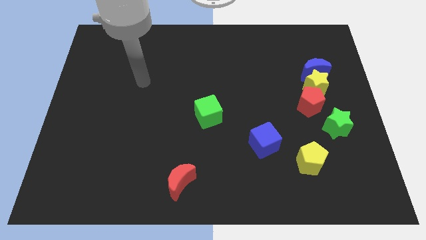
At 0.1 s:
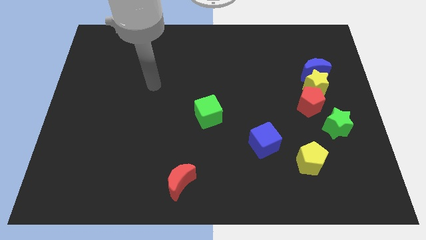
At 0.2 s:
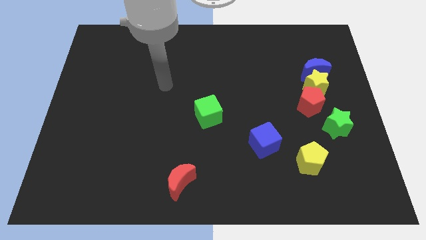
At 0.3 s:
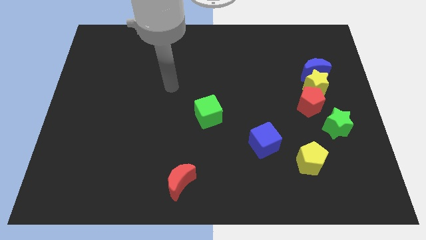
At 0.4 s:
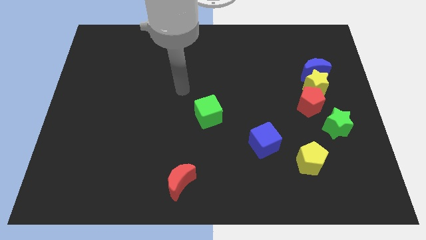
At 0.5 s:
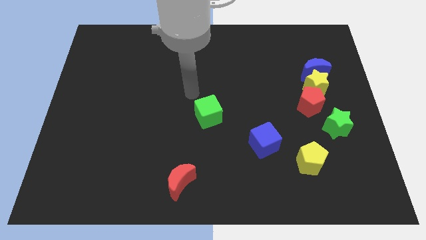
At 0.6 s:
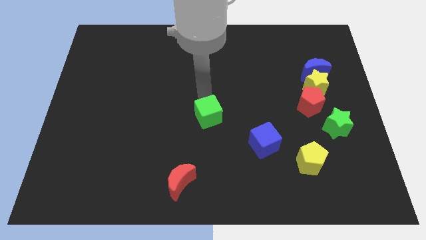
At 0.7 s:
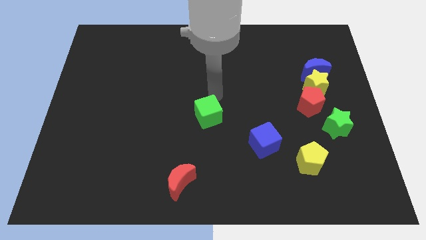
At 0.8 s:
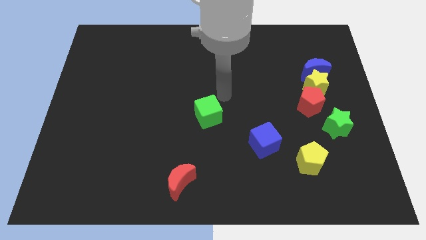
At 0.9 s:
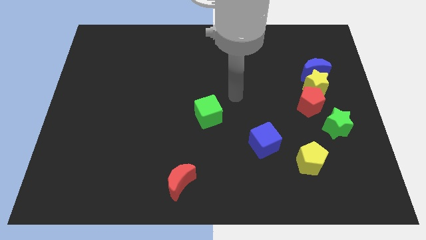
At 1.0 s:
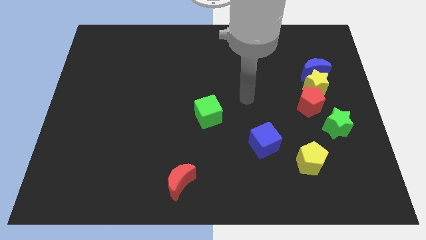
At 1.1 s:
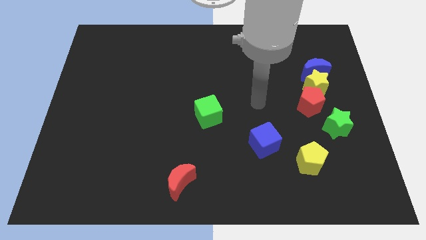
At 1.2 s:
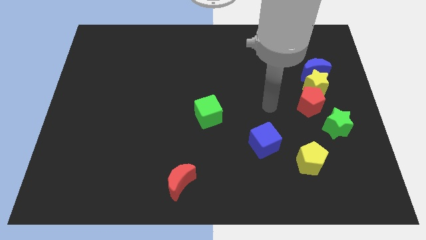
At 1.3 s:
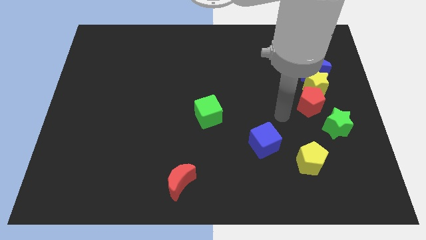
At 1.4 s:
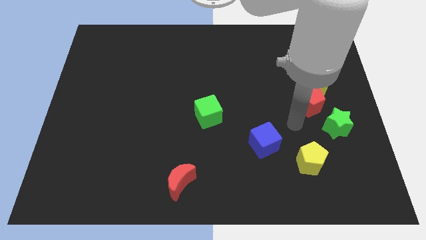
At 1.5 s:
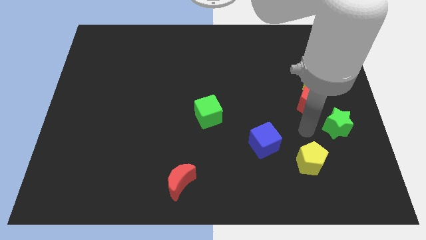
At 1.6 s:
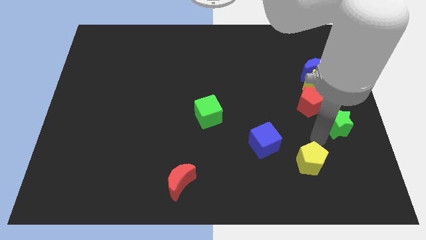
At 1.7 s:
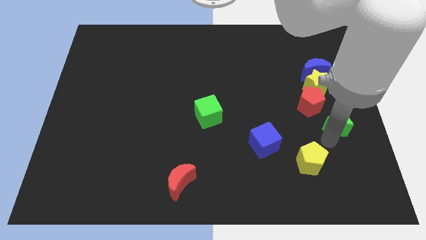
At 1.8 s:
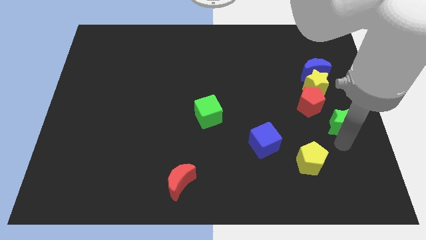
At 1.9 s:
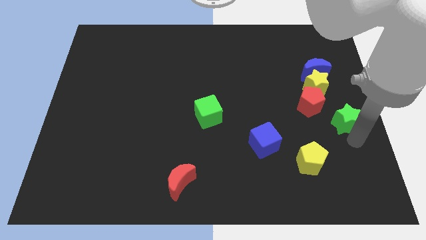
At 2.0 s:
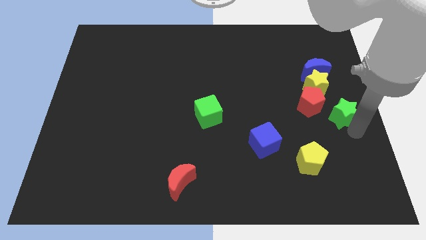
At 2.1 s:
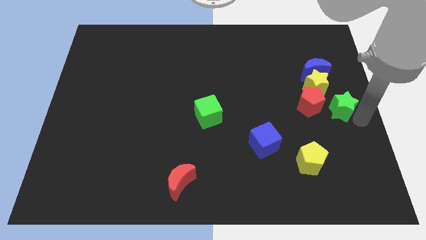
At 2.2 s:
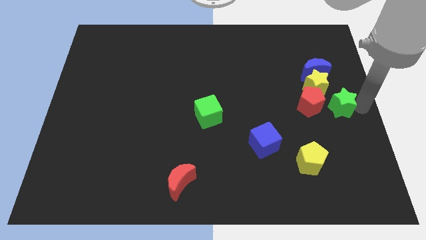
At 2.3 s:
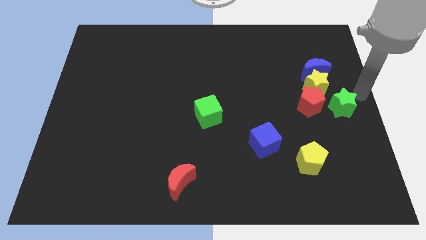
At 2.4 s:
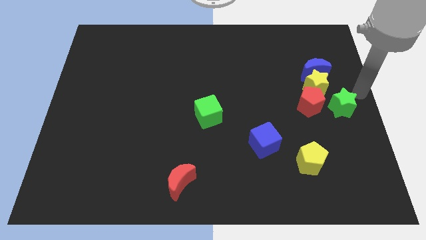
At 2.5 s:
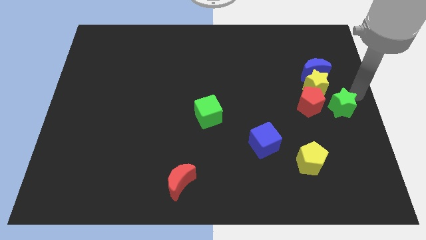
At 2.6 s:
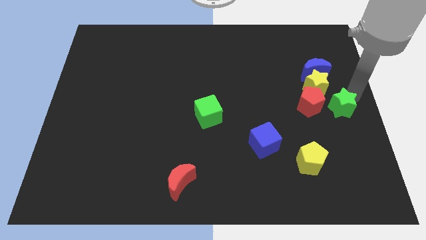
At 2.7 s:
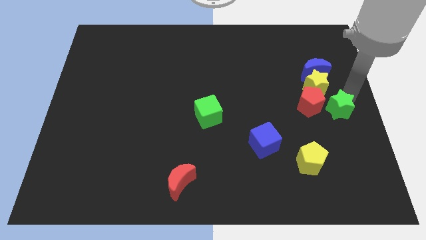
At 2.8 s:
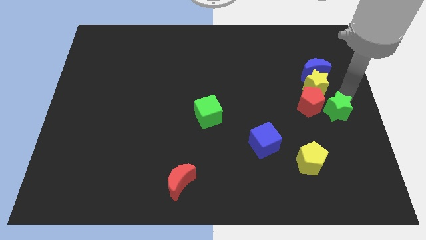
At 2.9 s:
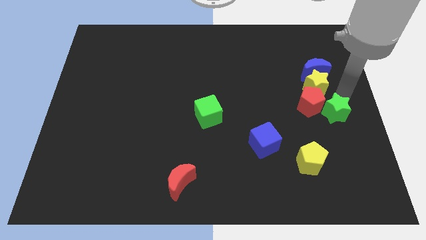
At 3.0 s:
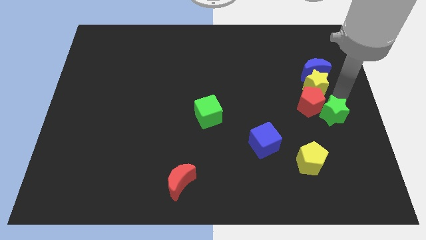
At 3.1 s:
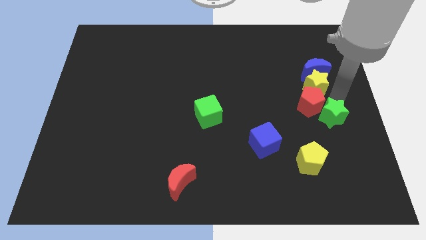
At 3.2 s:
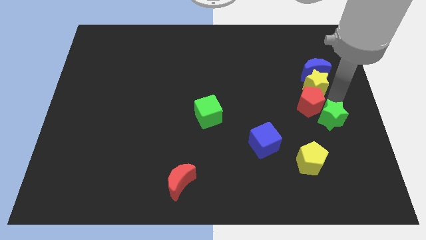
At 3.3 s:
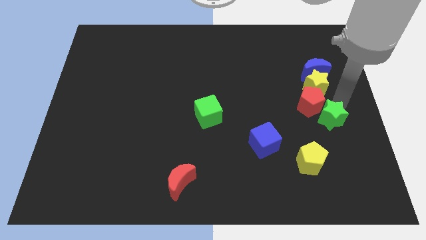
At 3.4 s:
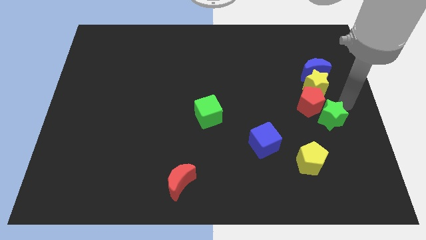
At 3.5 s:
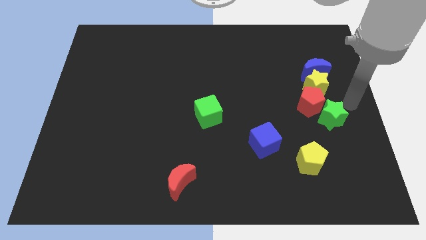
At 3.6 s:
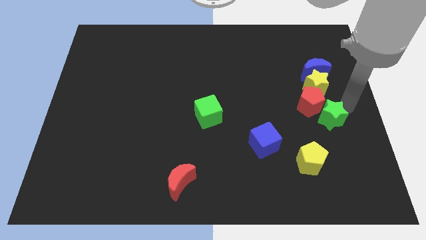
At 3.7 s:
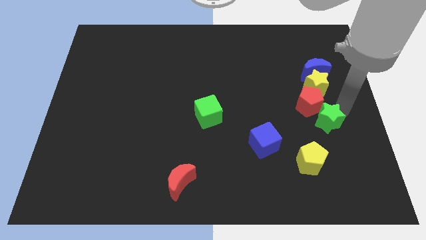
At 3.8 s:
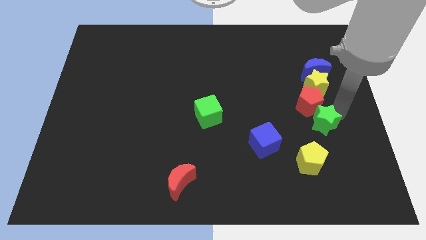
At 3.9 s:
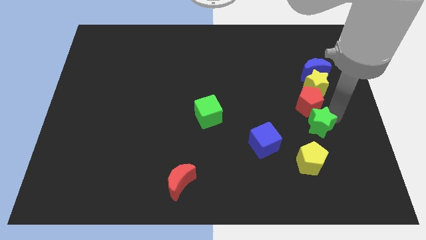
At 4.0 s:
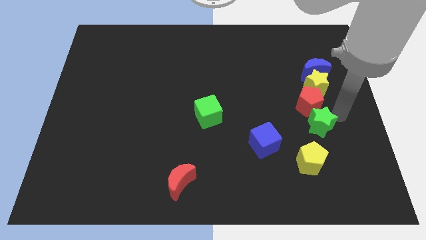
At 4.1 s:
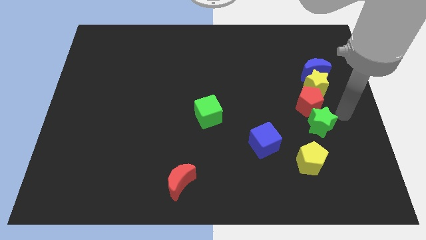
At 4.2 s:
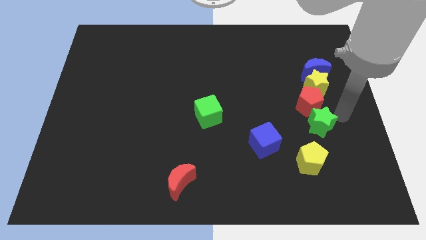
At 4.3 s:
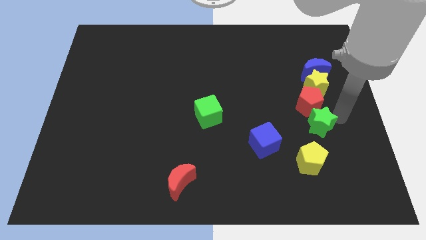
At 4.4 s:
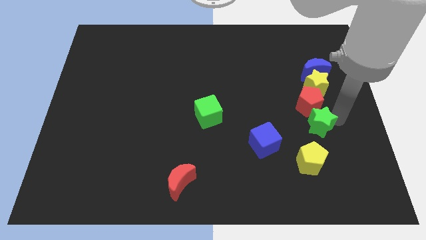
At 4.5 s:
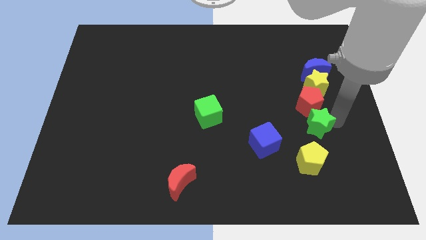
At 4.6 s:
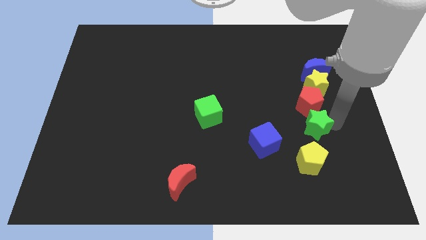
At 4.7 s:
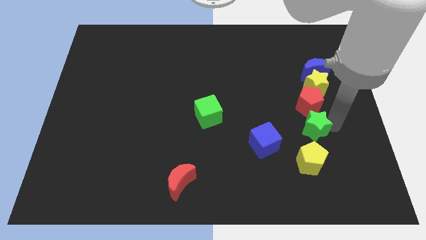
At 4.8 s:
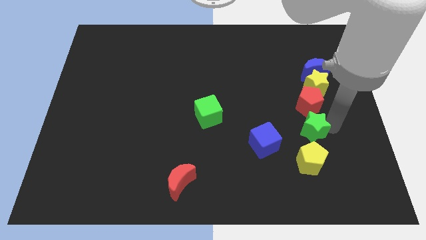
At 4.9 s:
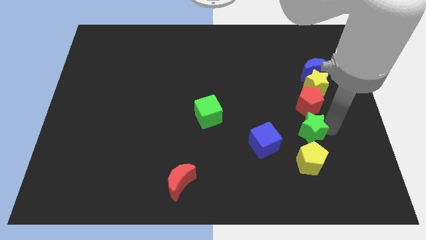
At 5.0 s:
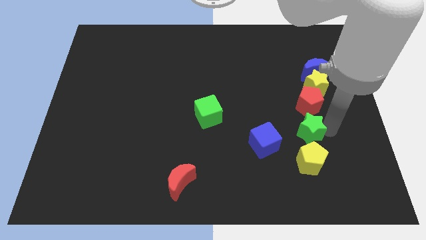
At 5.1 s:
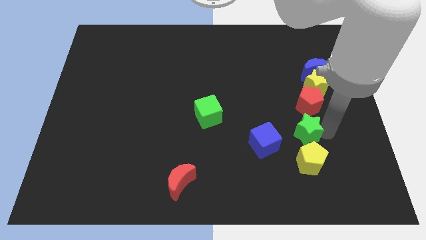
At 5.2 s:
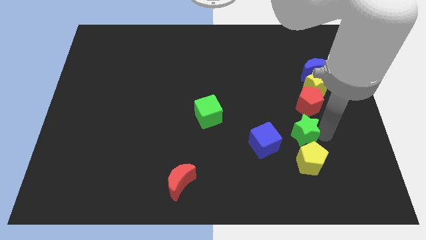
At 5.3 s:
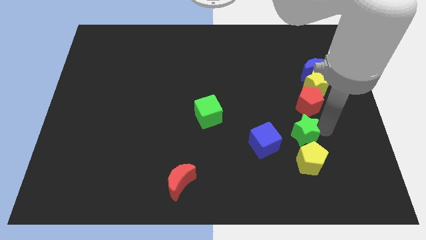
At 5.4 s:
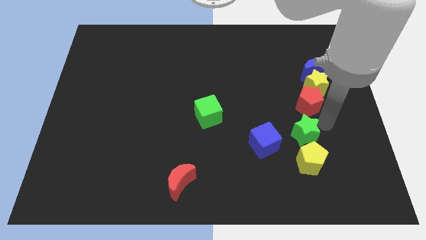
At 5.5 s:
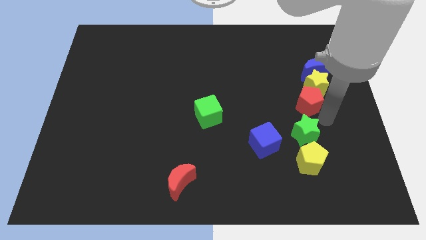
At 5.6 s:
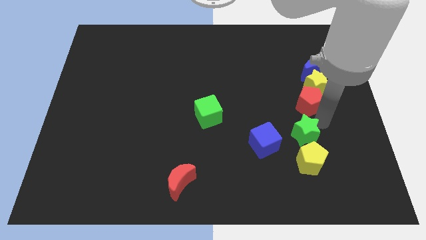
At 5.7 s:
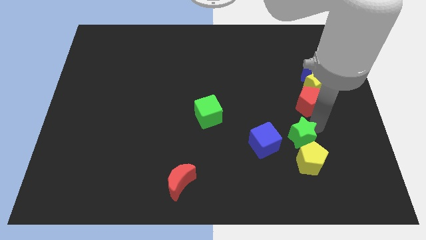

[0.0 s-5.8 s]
slide the green star slightly diagonally downwards and left

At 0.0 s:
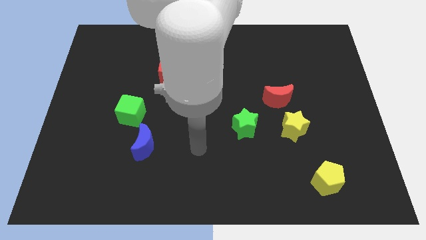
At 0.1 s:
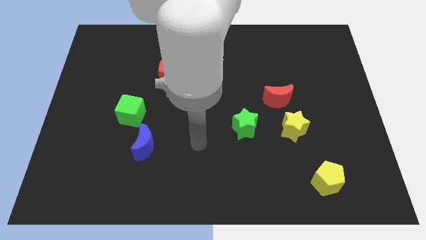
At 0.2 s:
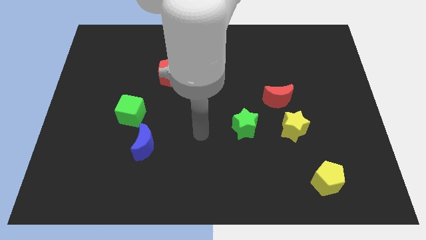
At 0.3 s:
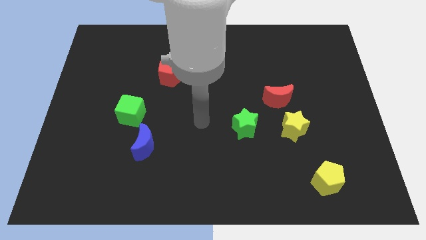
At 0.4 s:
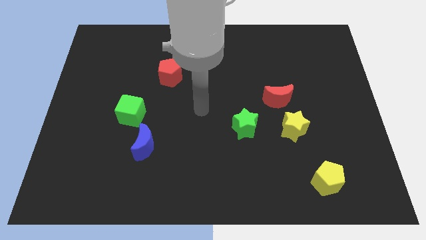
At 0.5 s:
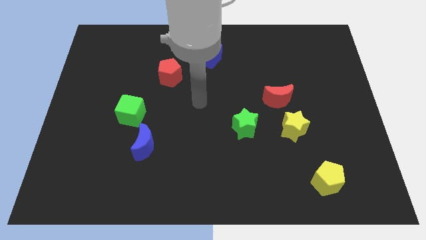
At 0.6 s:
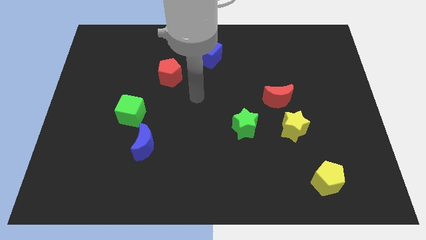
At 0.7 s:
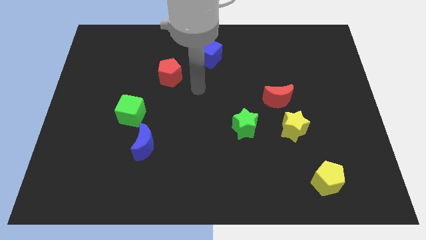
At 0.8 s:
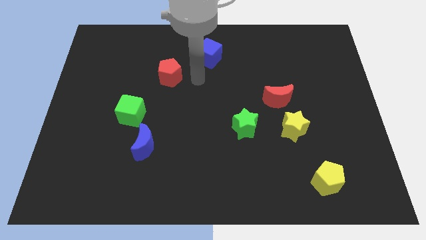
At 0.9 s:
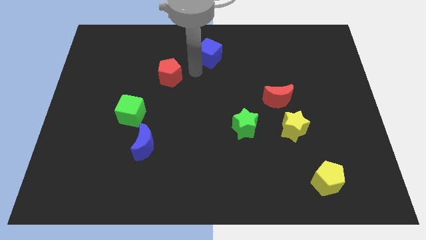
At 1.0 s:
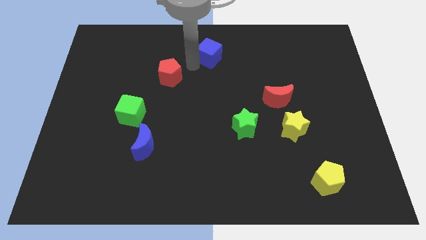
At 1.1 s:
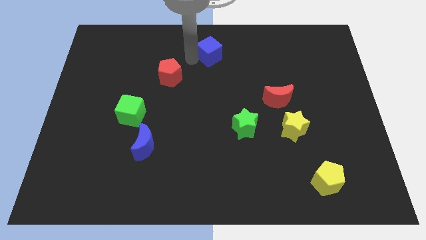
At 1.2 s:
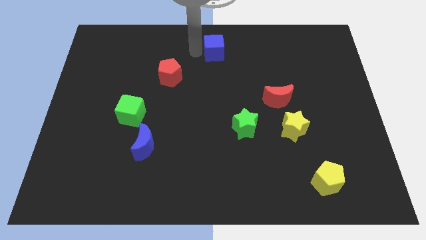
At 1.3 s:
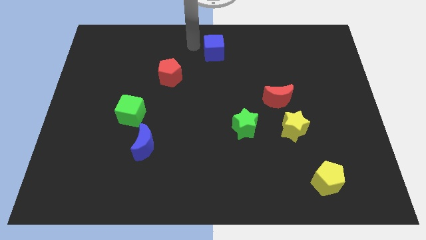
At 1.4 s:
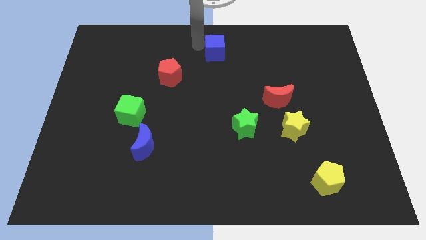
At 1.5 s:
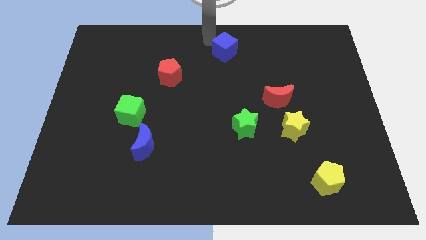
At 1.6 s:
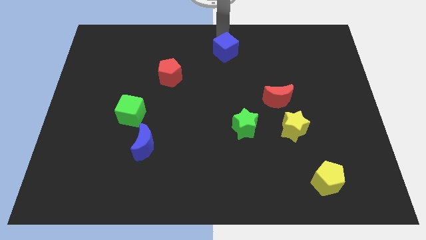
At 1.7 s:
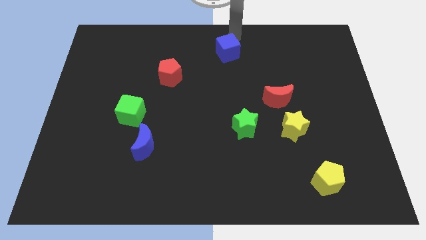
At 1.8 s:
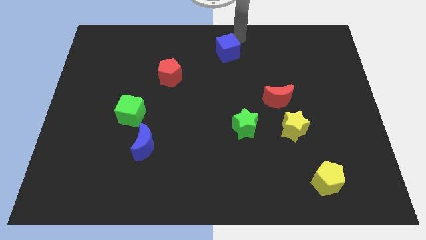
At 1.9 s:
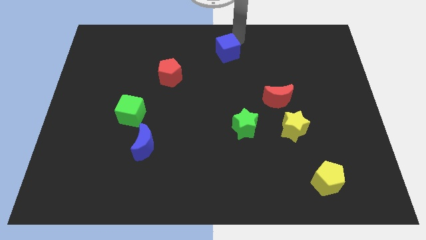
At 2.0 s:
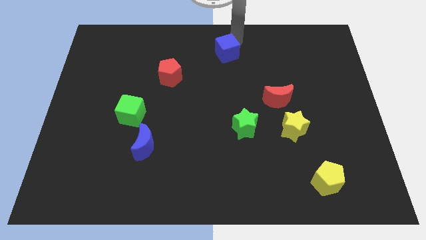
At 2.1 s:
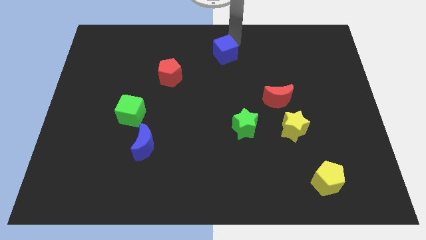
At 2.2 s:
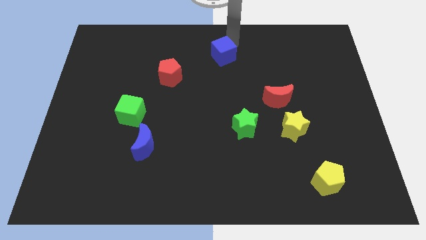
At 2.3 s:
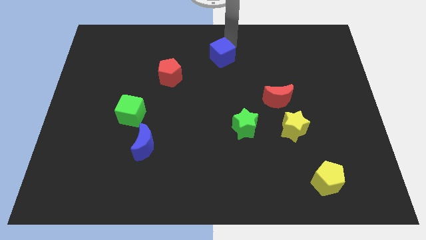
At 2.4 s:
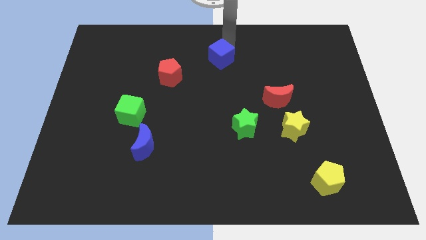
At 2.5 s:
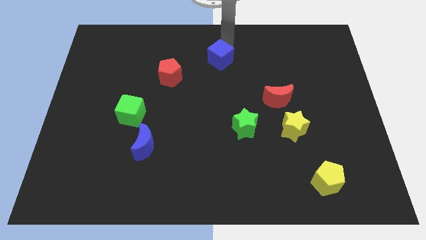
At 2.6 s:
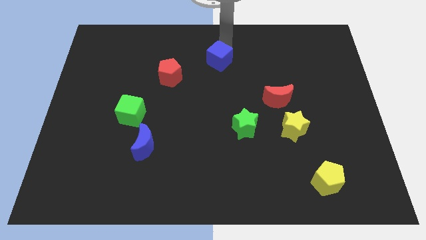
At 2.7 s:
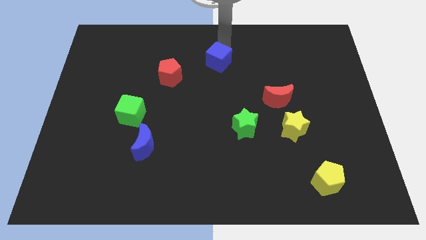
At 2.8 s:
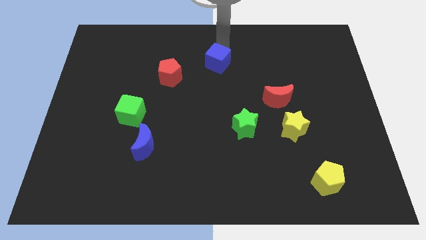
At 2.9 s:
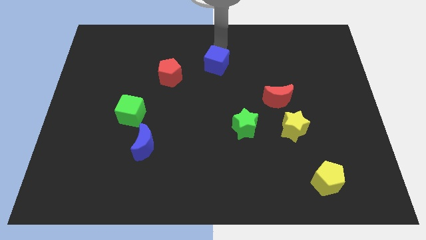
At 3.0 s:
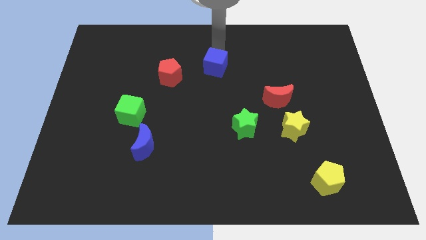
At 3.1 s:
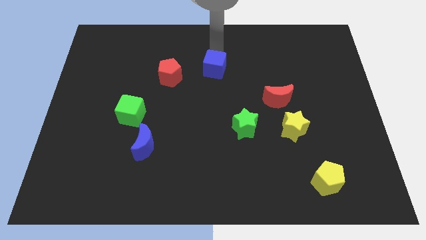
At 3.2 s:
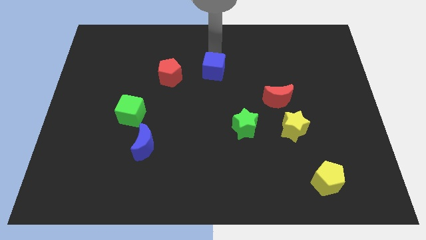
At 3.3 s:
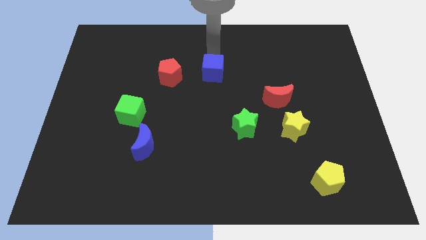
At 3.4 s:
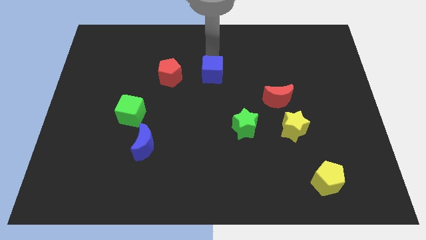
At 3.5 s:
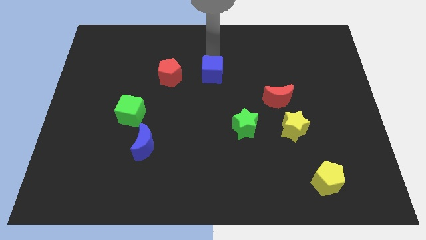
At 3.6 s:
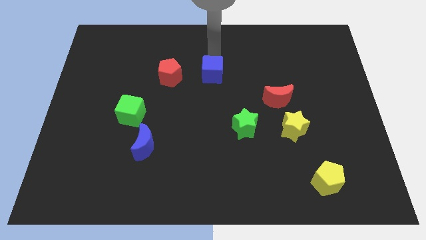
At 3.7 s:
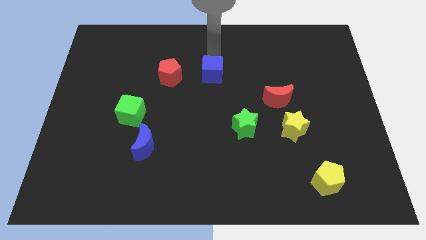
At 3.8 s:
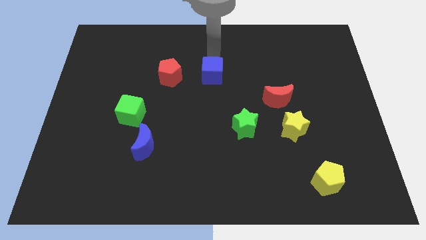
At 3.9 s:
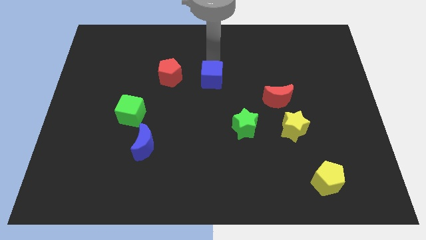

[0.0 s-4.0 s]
slightly push the blue cube down
